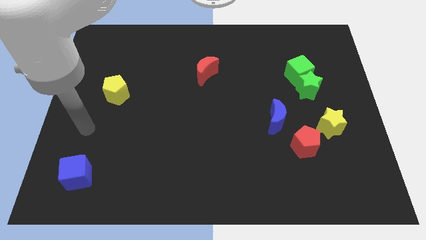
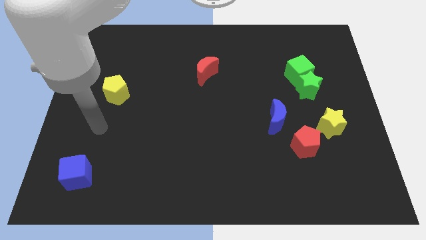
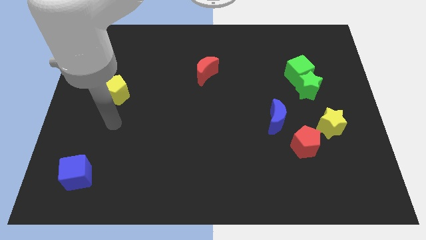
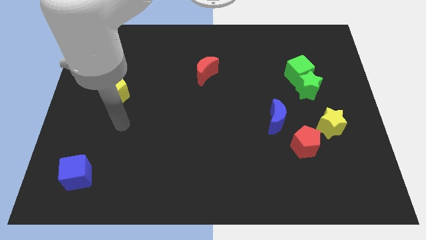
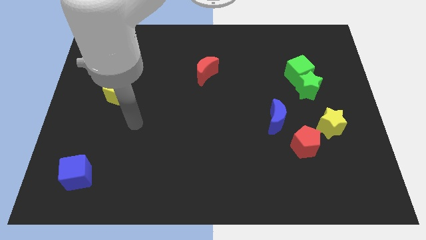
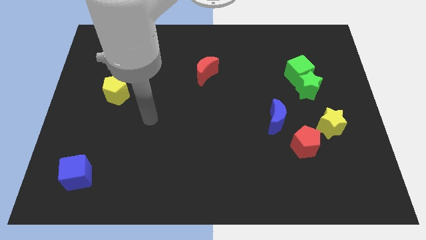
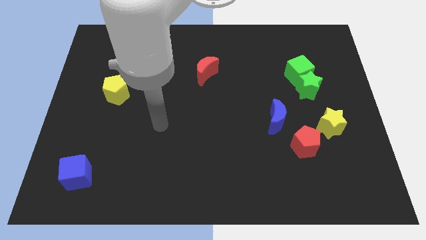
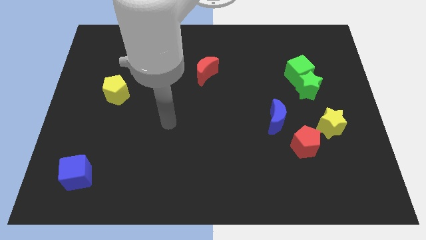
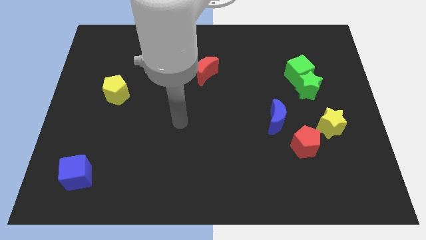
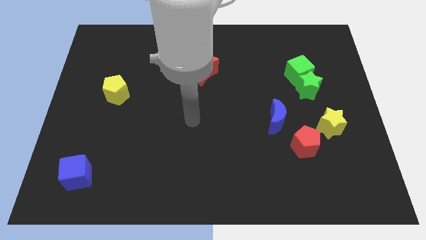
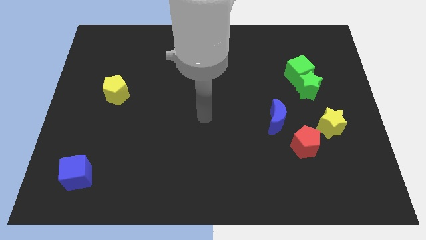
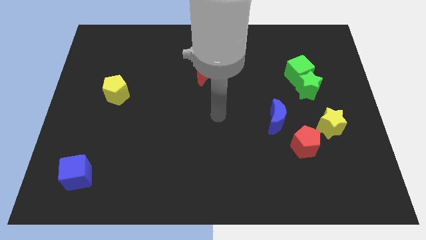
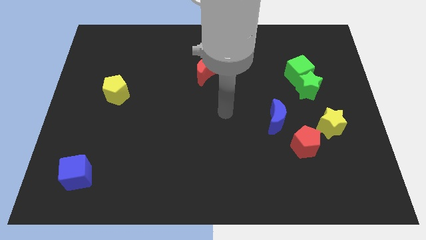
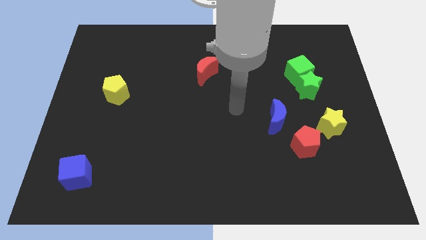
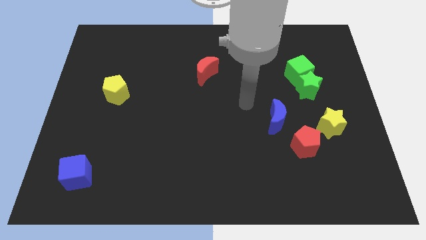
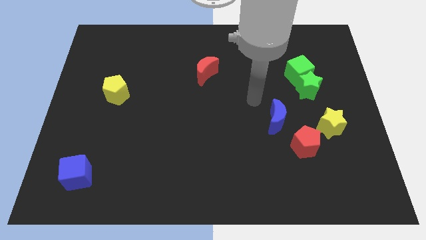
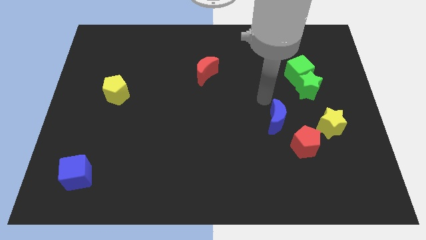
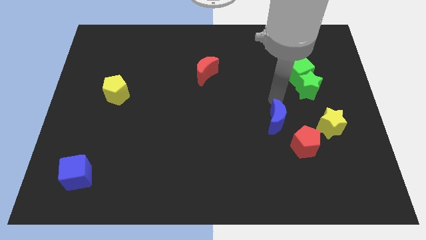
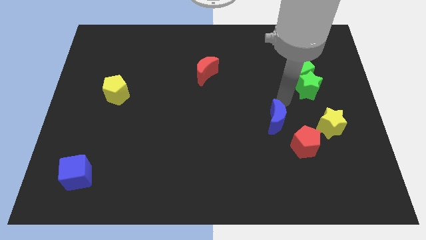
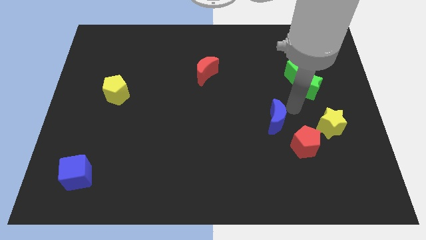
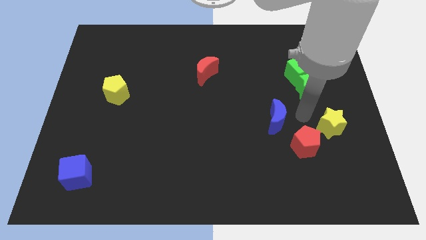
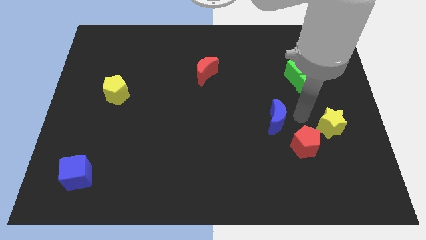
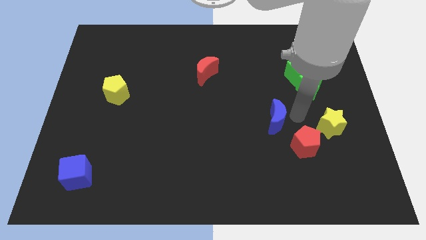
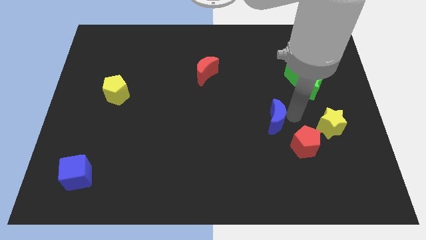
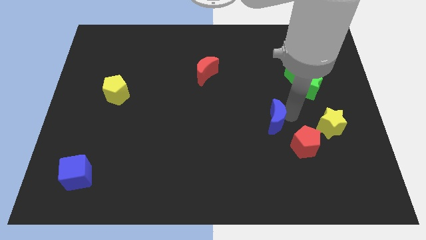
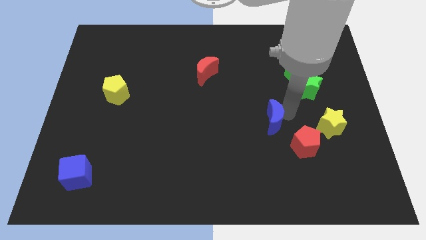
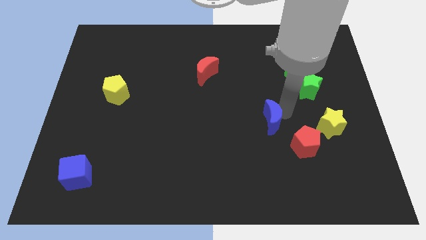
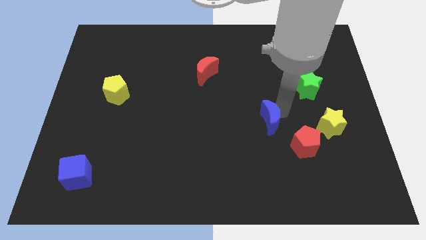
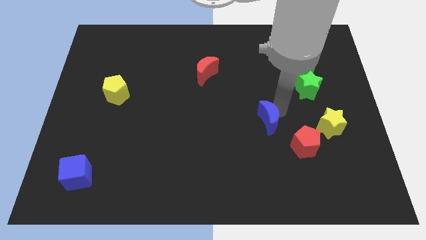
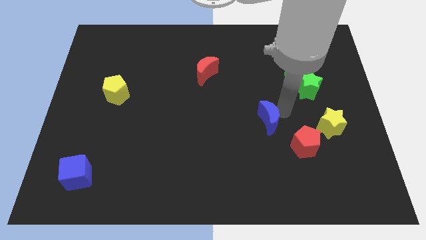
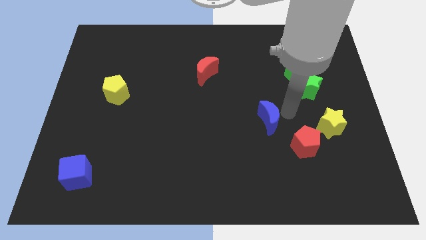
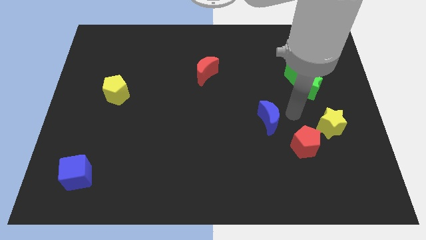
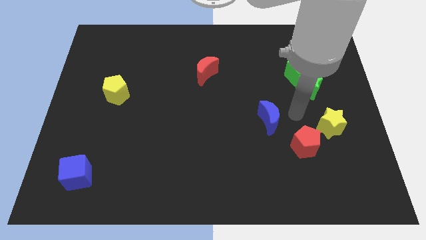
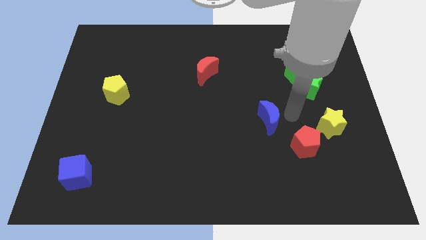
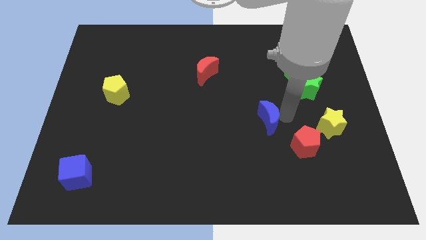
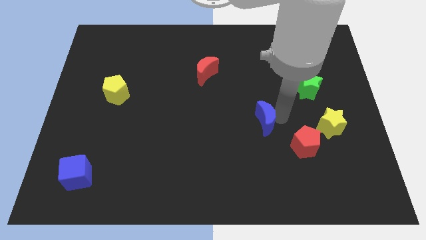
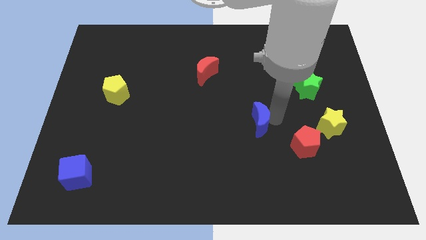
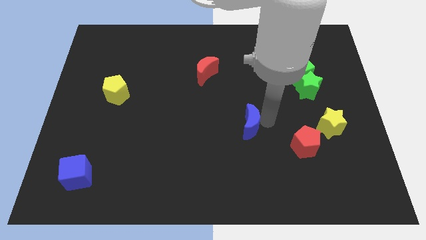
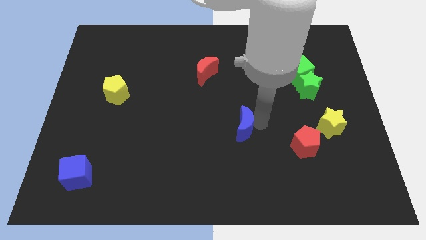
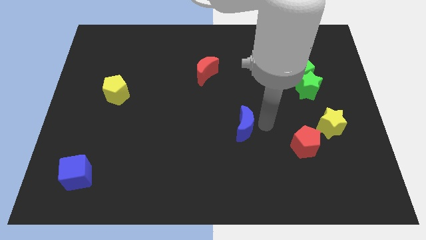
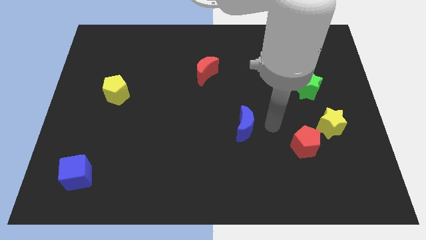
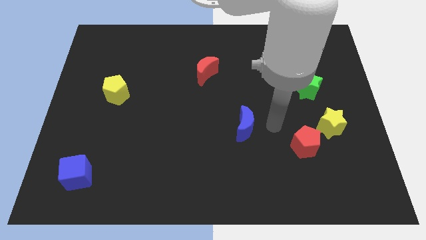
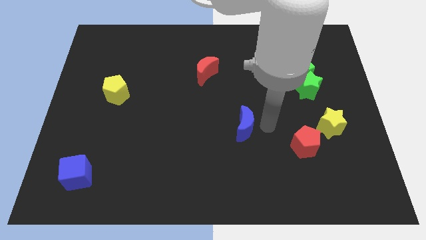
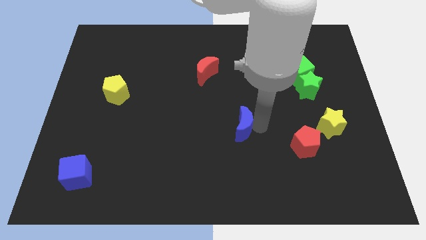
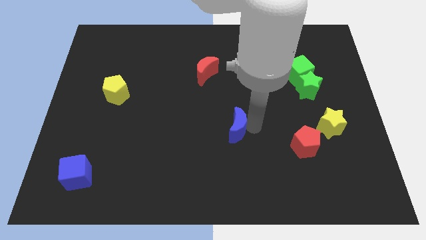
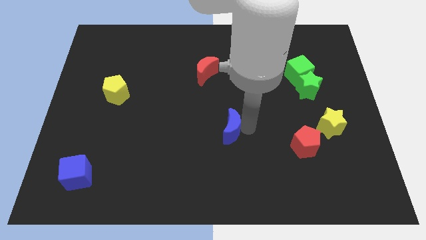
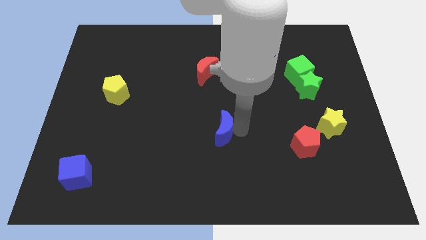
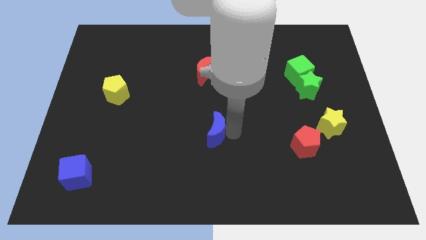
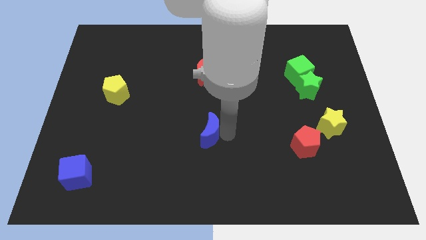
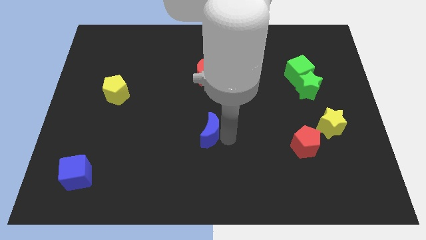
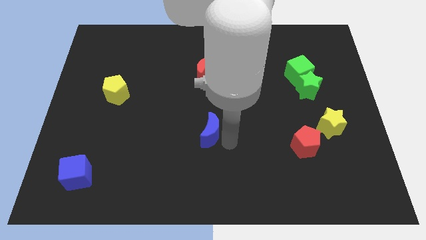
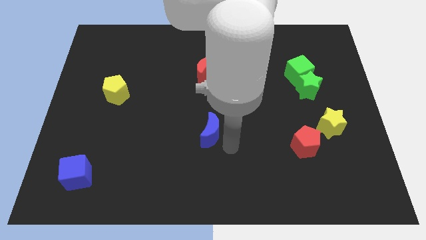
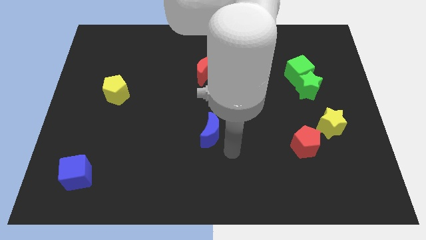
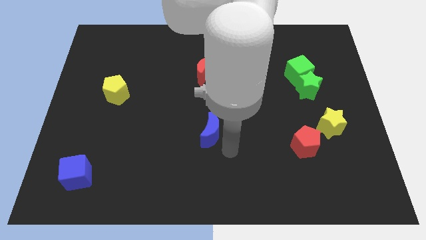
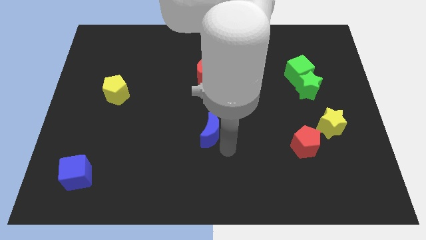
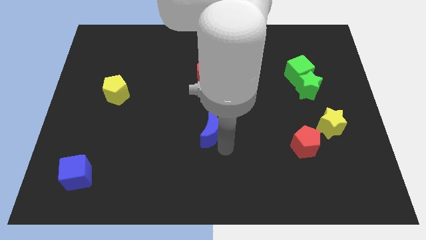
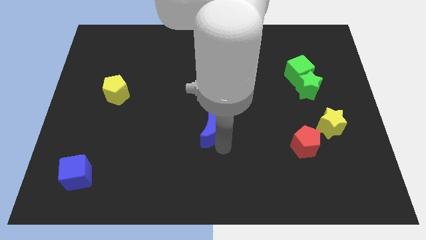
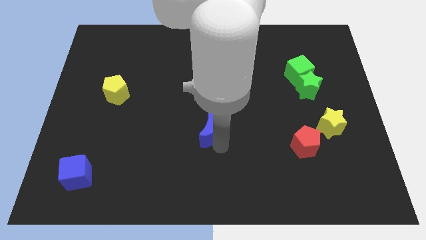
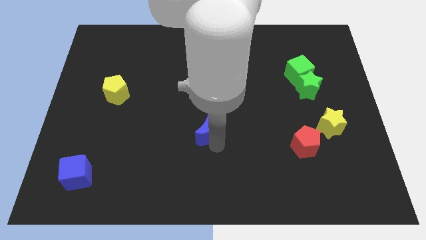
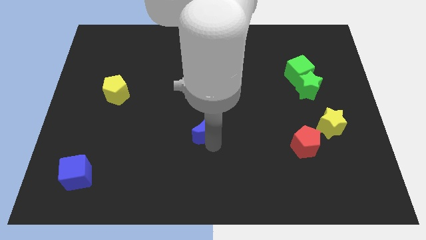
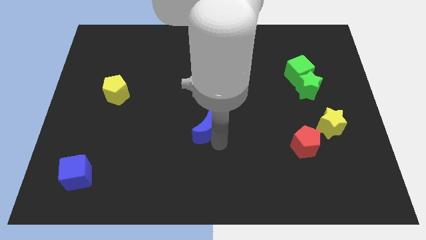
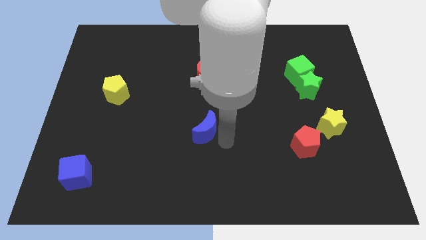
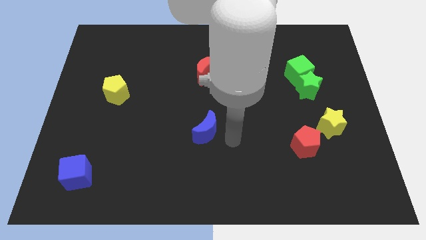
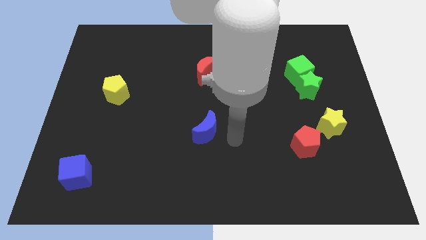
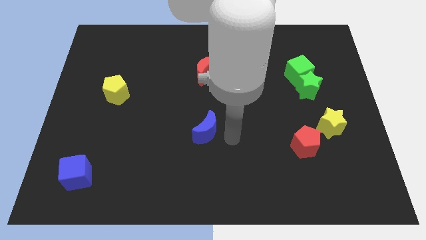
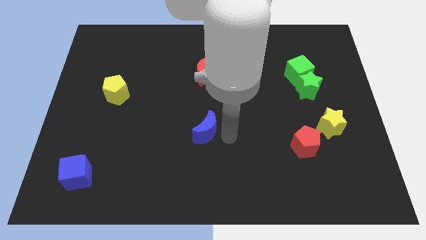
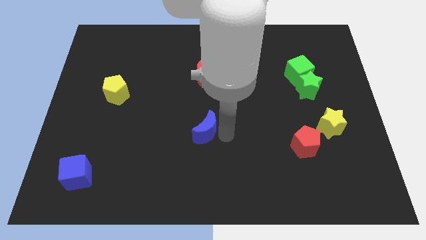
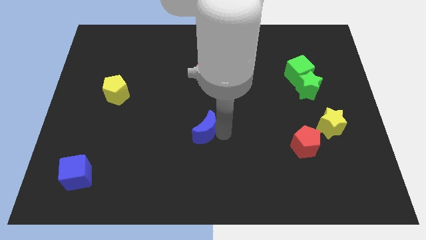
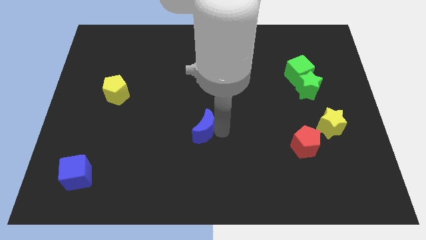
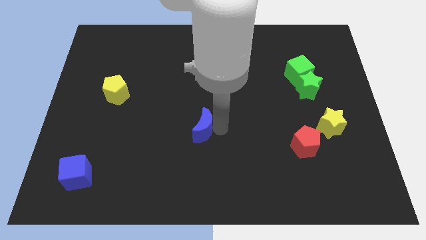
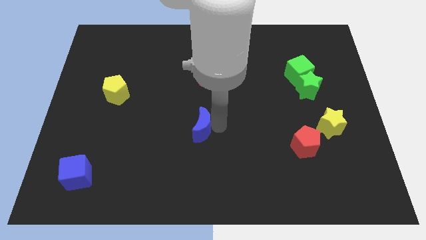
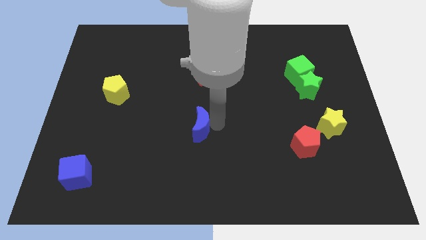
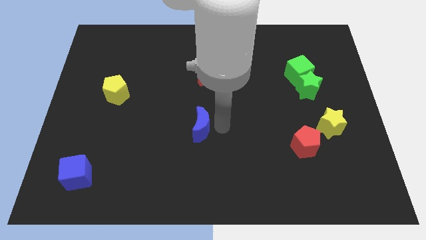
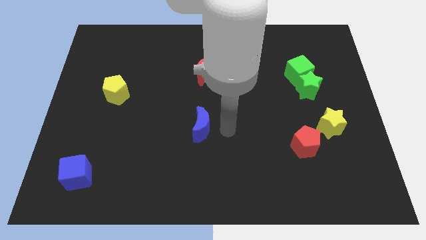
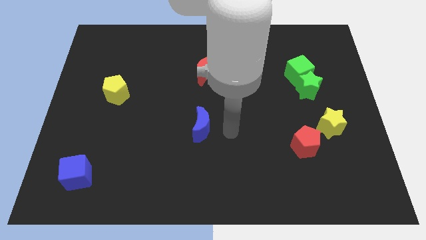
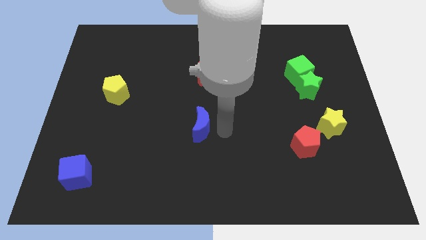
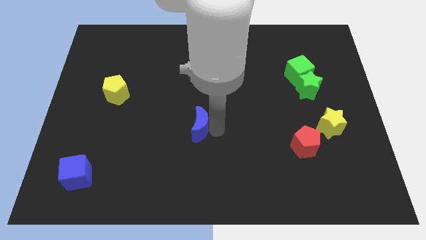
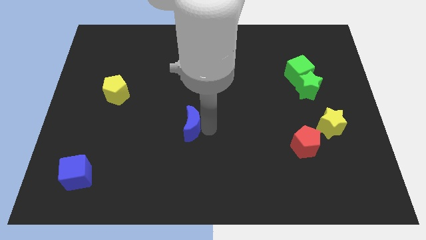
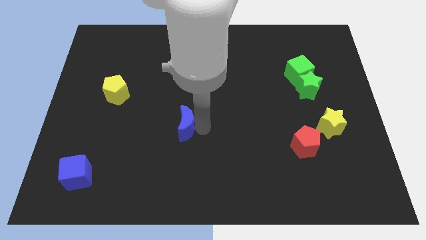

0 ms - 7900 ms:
slide the blue moon to the left
